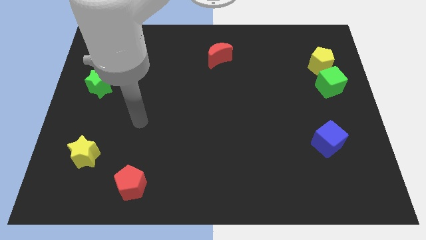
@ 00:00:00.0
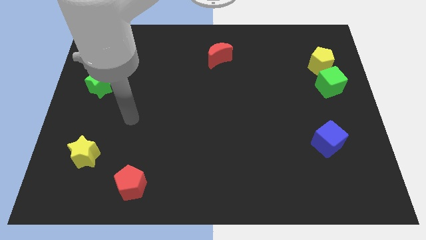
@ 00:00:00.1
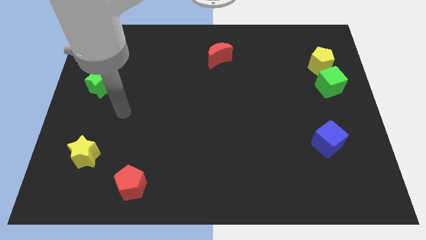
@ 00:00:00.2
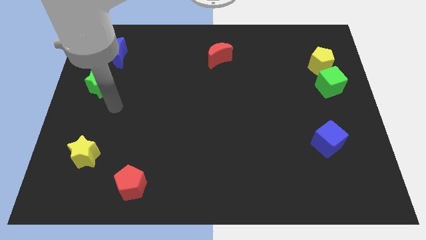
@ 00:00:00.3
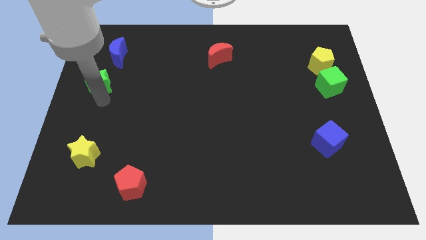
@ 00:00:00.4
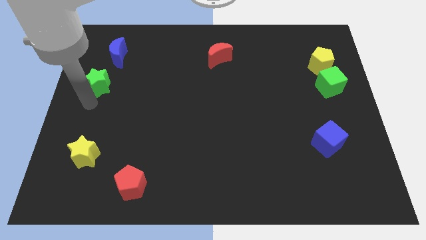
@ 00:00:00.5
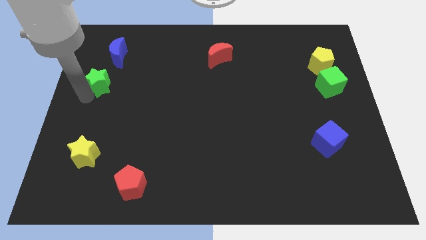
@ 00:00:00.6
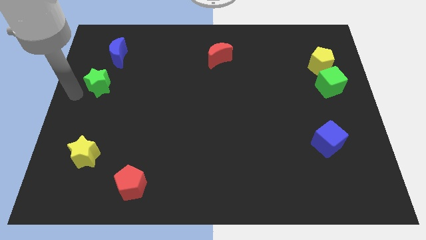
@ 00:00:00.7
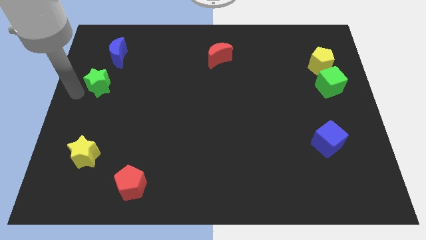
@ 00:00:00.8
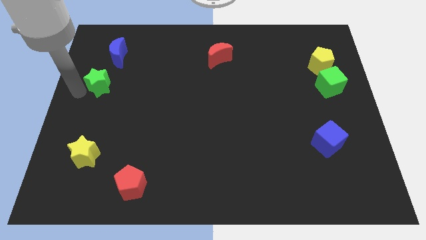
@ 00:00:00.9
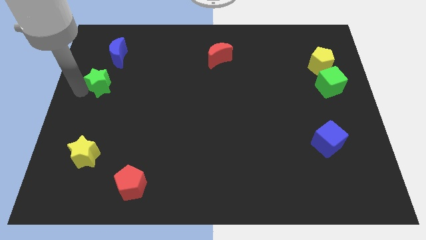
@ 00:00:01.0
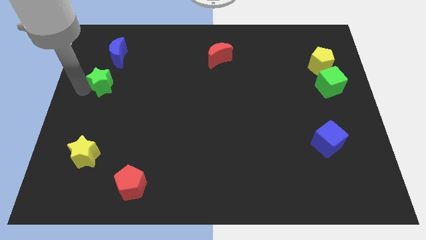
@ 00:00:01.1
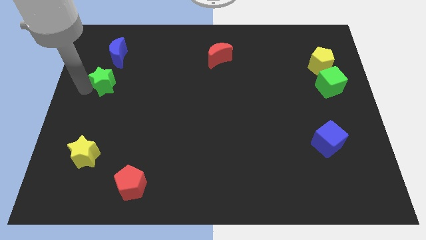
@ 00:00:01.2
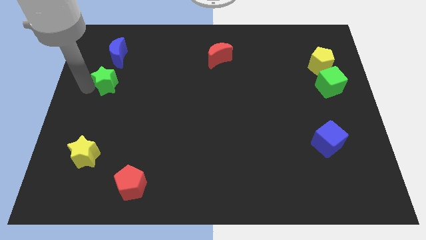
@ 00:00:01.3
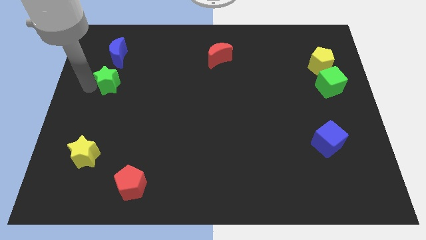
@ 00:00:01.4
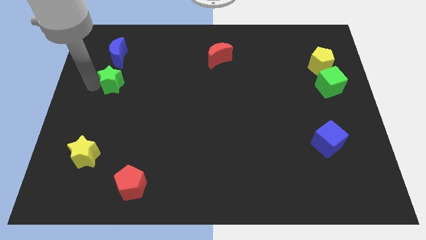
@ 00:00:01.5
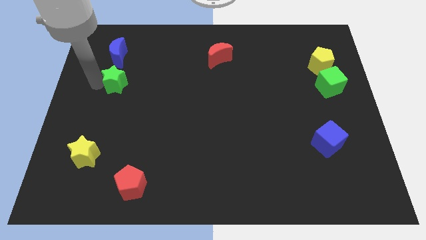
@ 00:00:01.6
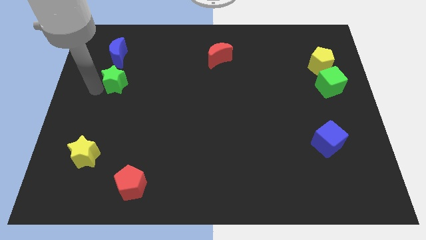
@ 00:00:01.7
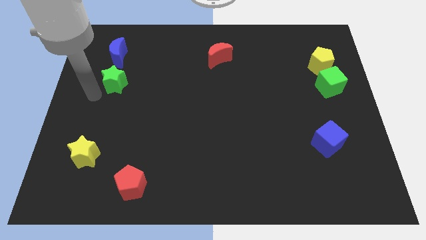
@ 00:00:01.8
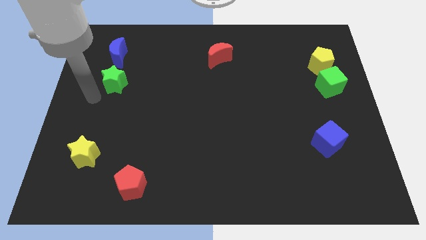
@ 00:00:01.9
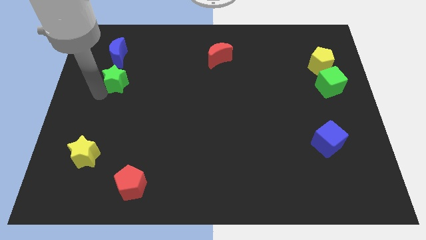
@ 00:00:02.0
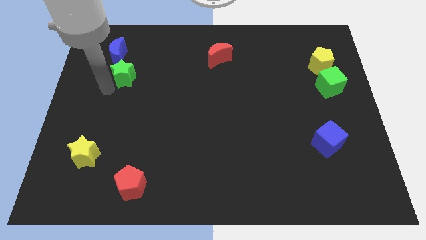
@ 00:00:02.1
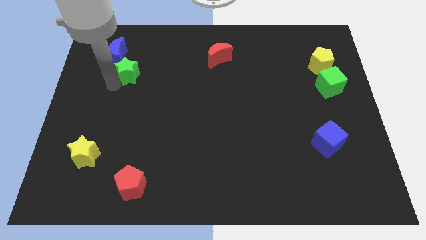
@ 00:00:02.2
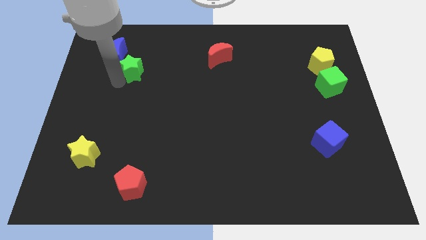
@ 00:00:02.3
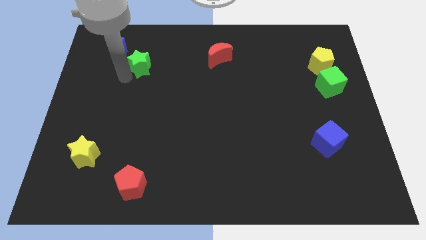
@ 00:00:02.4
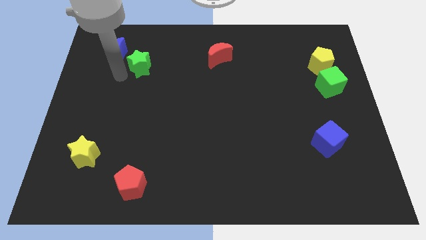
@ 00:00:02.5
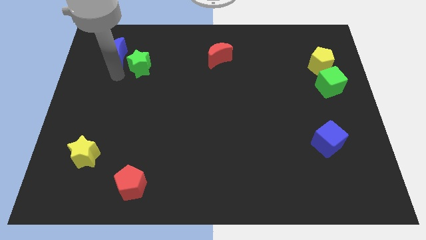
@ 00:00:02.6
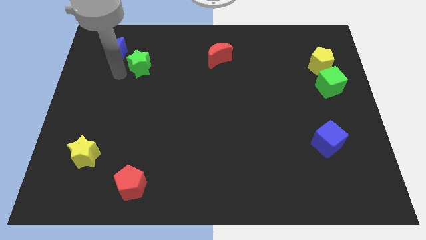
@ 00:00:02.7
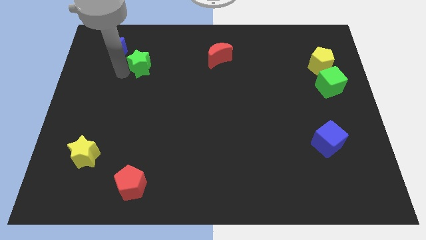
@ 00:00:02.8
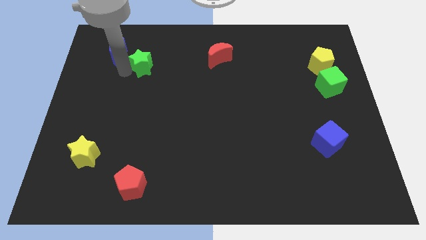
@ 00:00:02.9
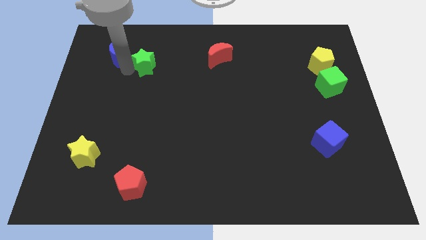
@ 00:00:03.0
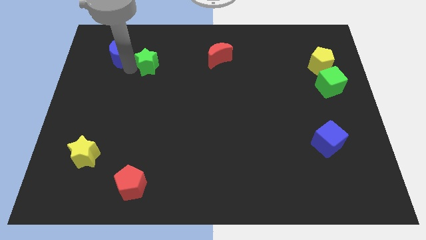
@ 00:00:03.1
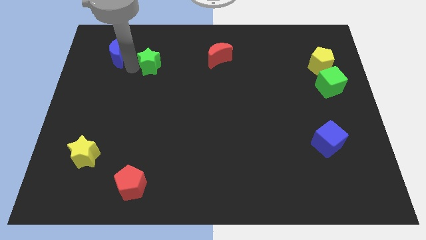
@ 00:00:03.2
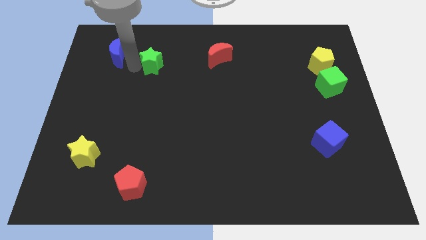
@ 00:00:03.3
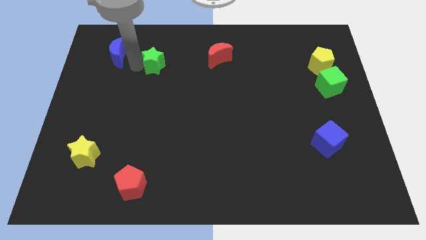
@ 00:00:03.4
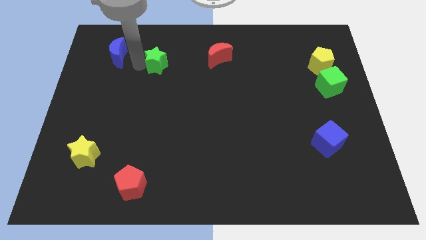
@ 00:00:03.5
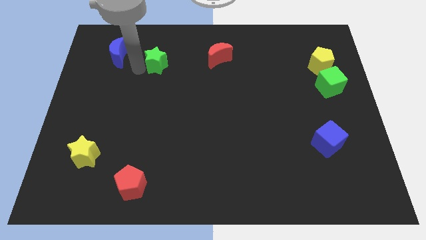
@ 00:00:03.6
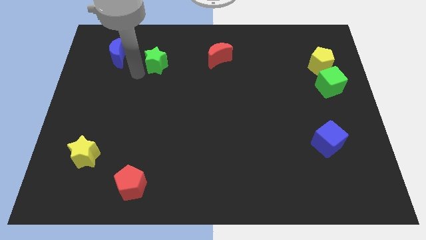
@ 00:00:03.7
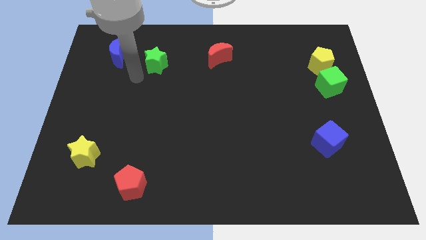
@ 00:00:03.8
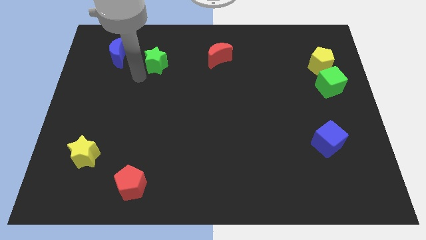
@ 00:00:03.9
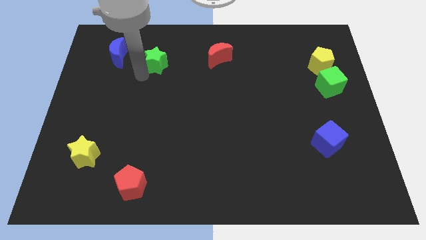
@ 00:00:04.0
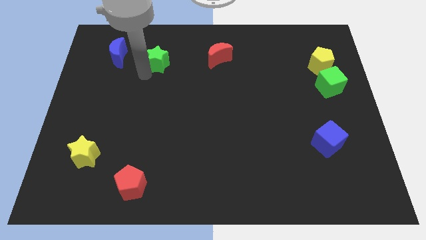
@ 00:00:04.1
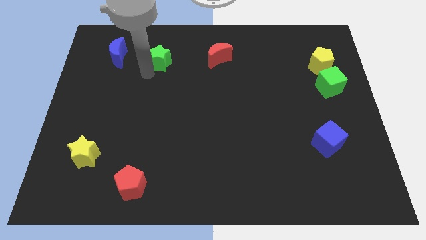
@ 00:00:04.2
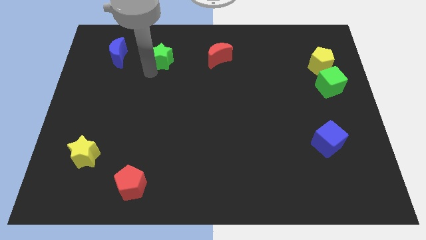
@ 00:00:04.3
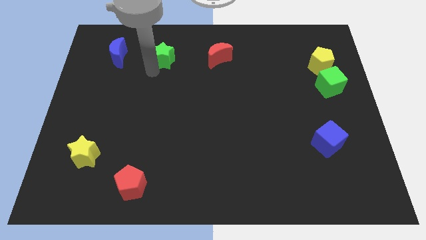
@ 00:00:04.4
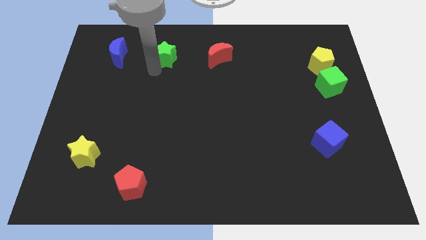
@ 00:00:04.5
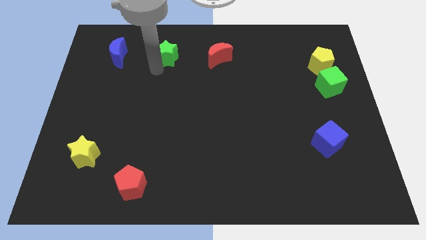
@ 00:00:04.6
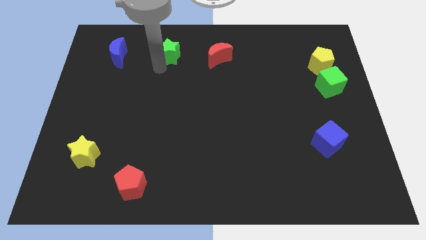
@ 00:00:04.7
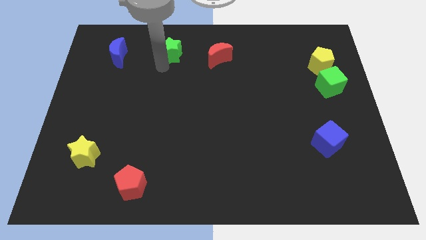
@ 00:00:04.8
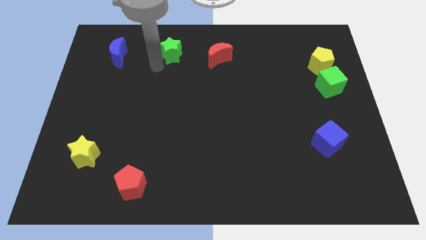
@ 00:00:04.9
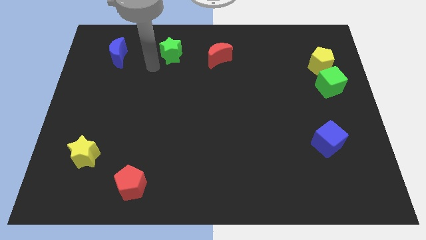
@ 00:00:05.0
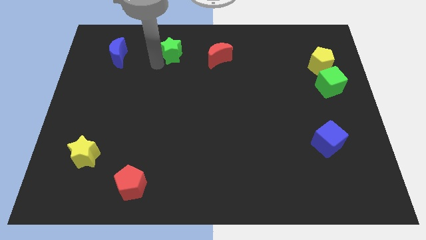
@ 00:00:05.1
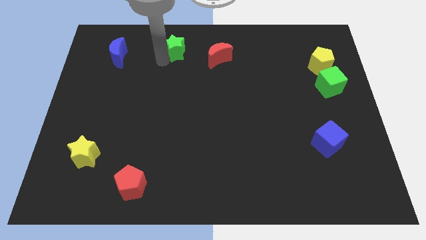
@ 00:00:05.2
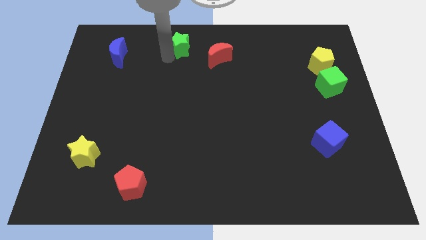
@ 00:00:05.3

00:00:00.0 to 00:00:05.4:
move the green star to the towards your base
